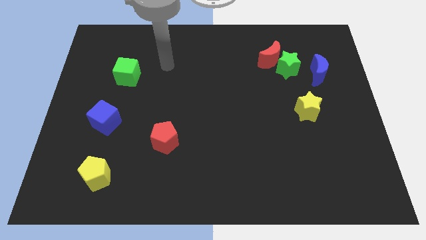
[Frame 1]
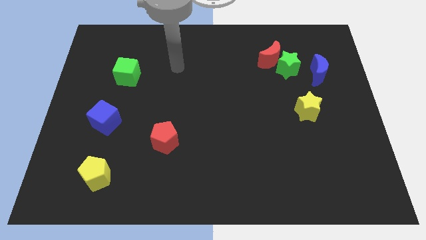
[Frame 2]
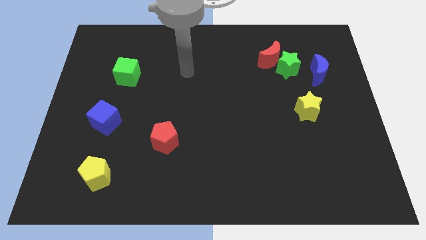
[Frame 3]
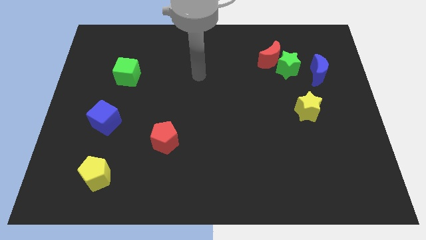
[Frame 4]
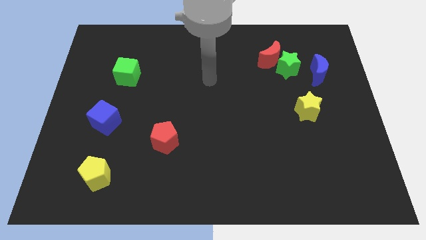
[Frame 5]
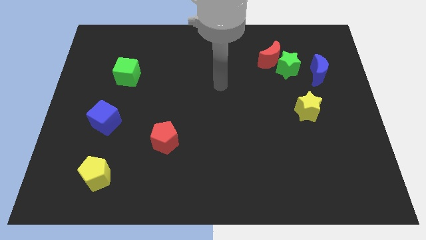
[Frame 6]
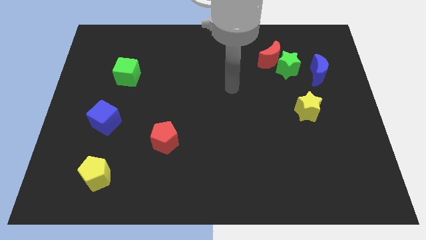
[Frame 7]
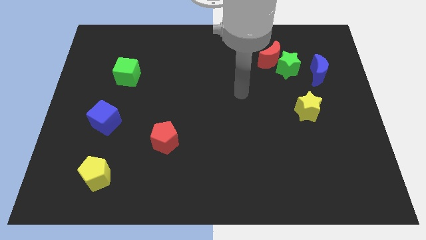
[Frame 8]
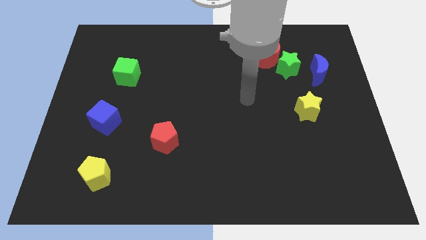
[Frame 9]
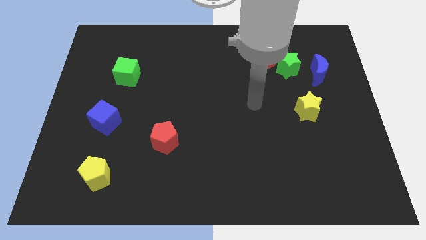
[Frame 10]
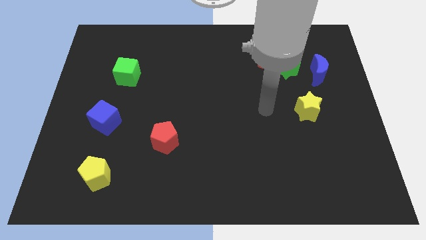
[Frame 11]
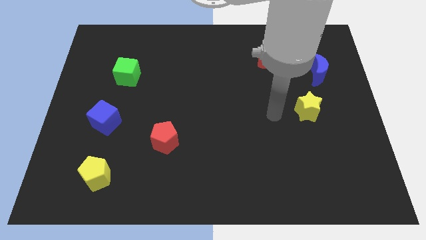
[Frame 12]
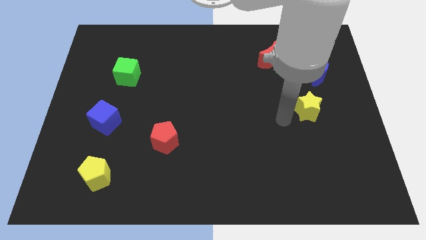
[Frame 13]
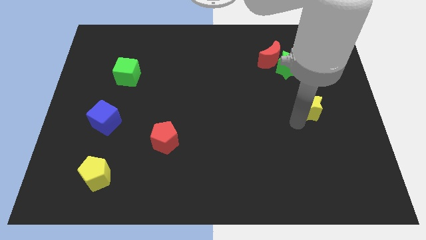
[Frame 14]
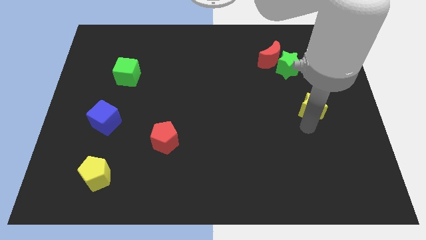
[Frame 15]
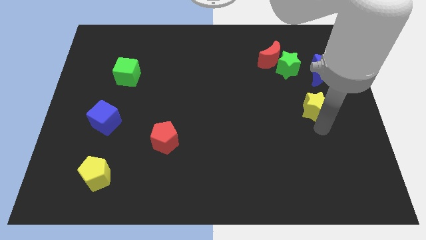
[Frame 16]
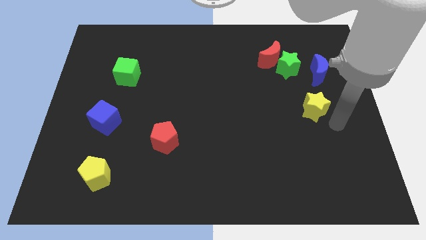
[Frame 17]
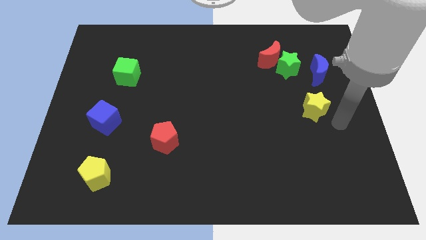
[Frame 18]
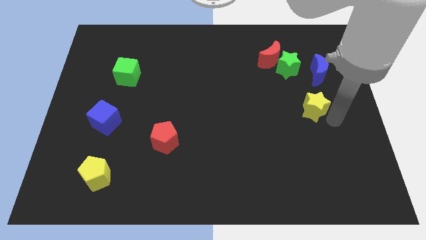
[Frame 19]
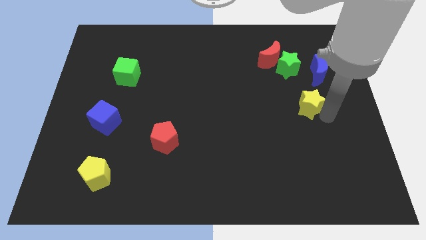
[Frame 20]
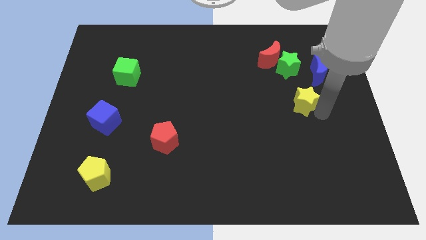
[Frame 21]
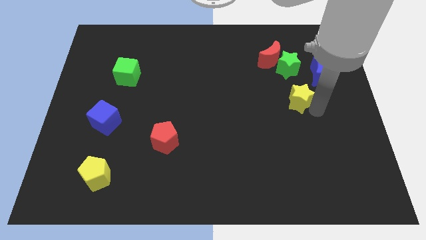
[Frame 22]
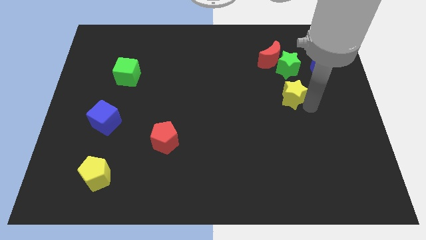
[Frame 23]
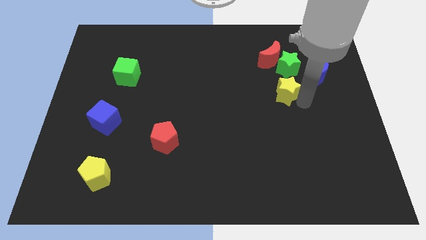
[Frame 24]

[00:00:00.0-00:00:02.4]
push the yellow star slightly diagonally up and to the left

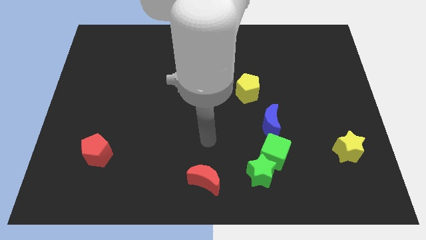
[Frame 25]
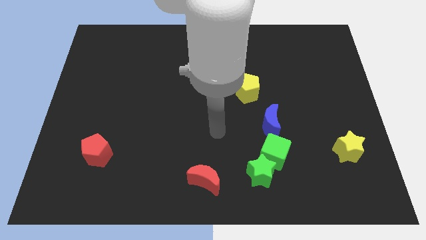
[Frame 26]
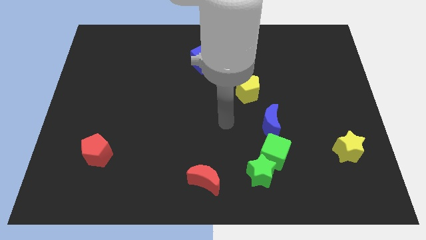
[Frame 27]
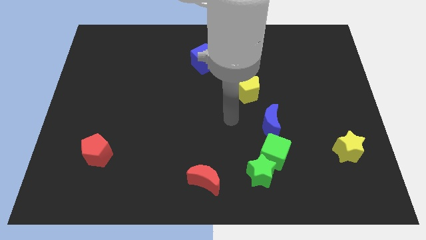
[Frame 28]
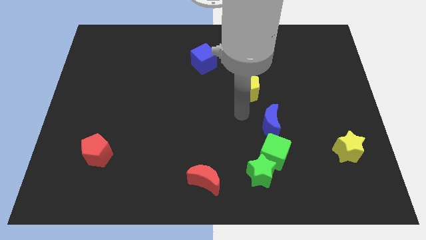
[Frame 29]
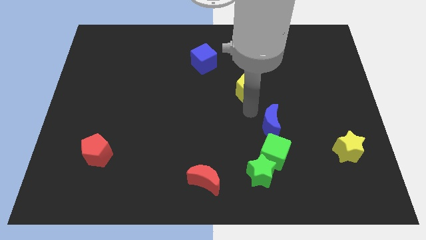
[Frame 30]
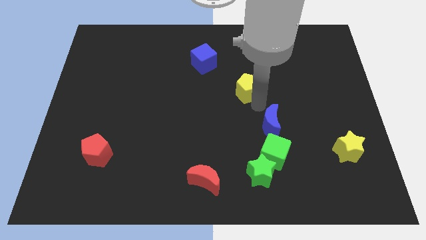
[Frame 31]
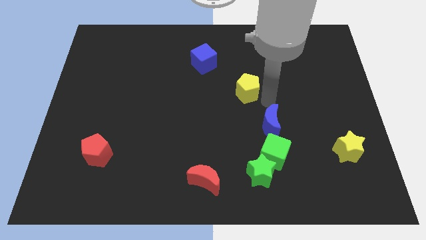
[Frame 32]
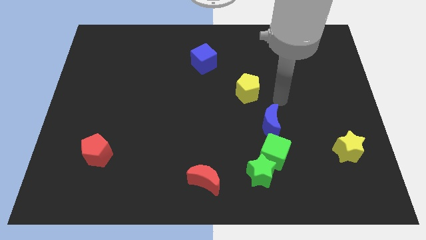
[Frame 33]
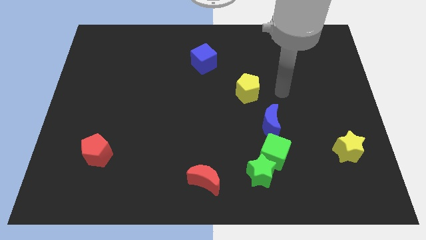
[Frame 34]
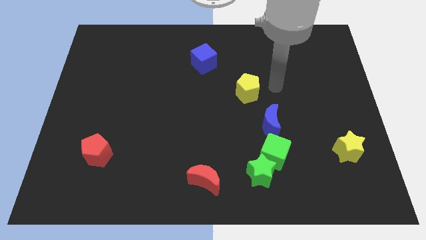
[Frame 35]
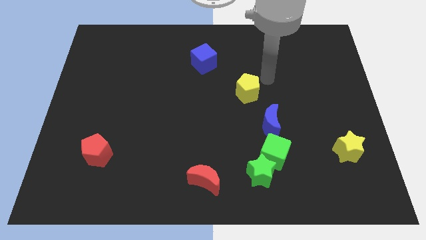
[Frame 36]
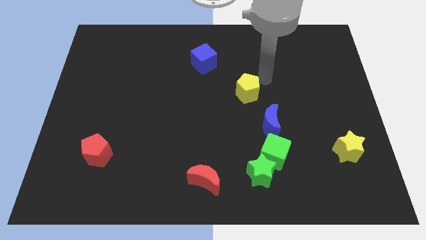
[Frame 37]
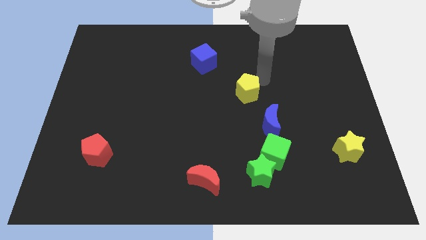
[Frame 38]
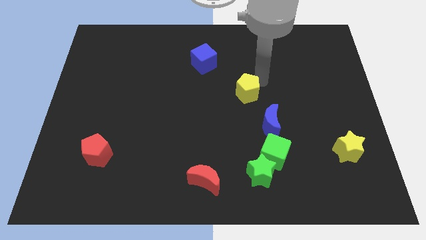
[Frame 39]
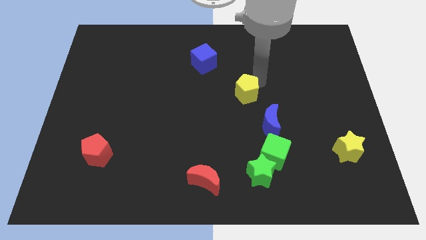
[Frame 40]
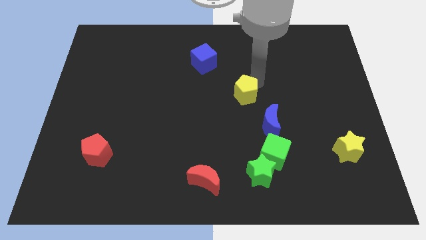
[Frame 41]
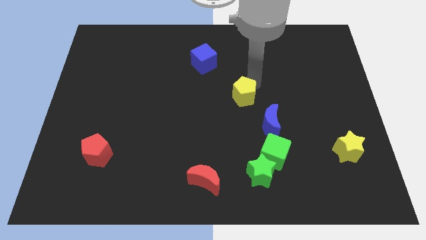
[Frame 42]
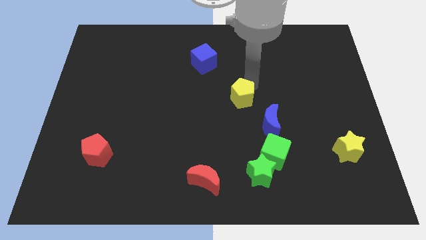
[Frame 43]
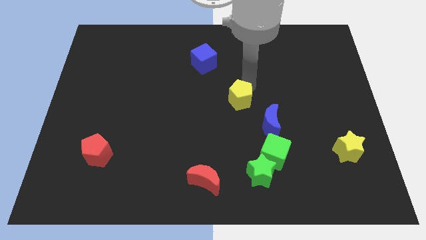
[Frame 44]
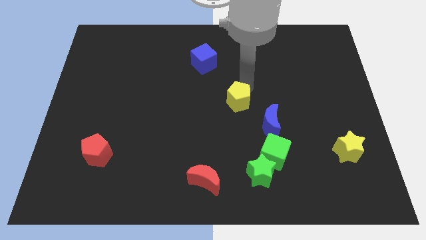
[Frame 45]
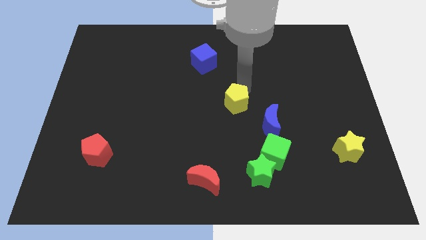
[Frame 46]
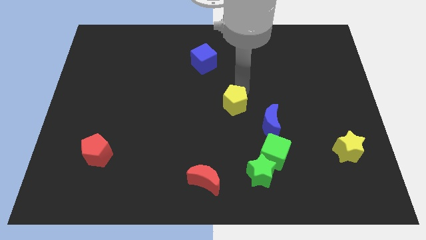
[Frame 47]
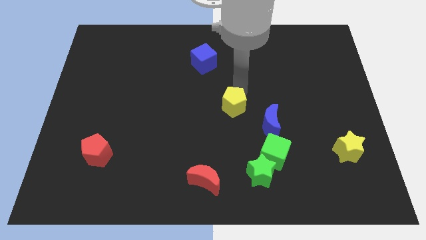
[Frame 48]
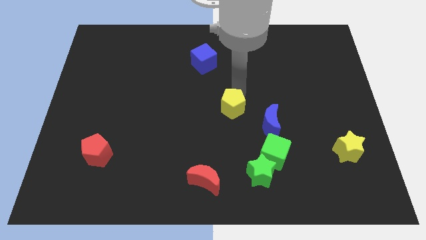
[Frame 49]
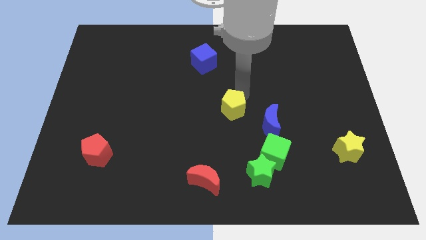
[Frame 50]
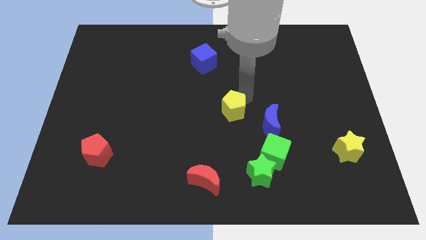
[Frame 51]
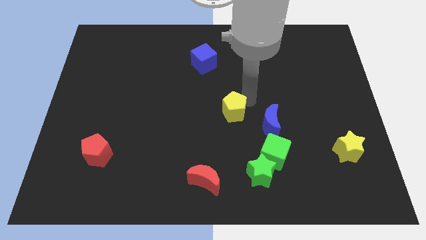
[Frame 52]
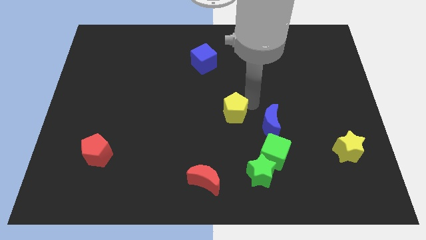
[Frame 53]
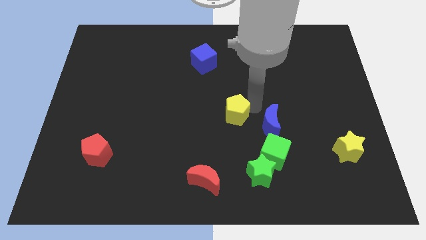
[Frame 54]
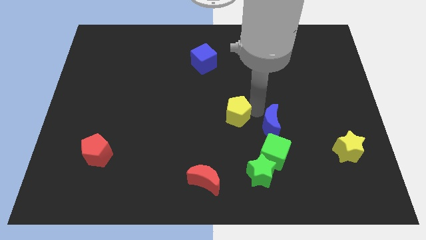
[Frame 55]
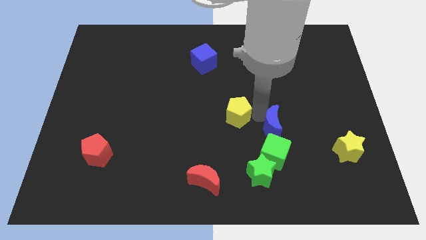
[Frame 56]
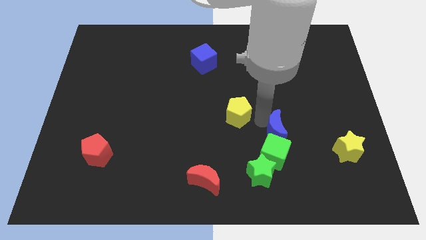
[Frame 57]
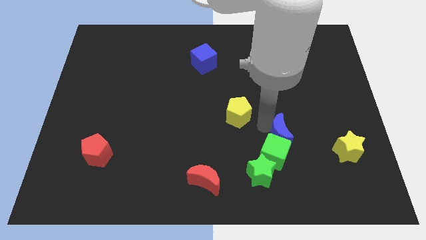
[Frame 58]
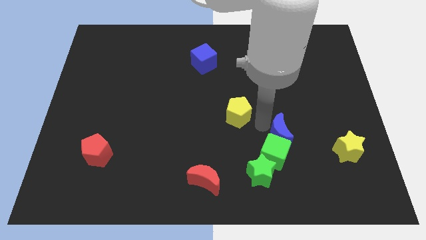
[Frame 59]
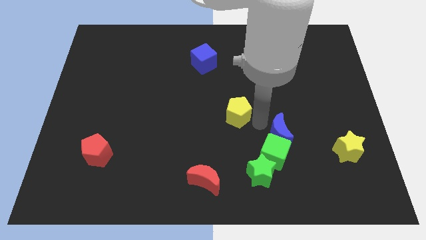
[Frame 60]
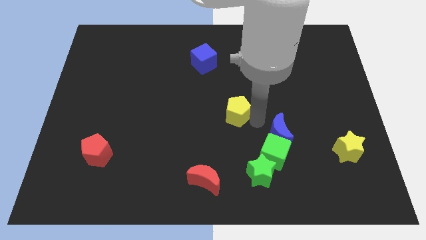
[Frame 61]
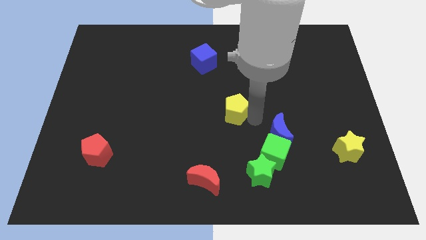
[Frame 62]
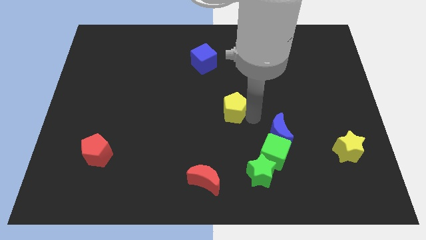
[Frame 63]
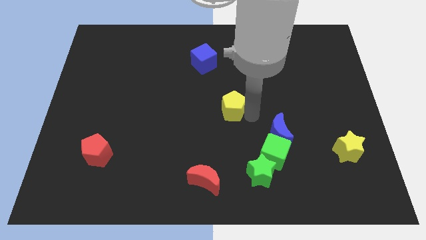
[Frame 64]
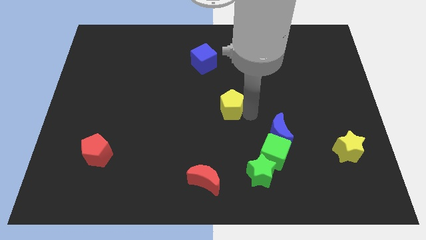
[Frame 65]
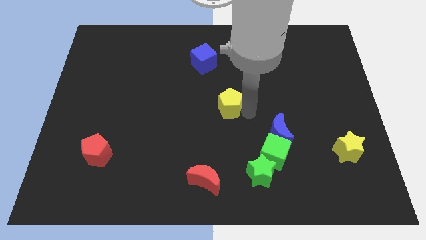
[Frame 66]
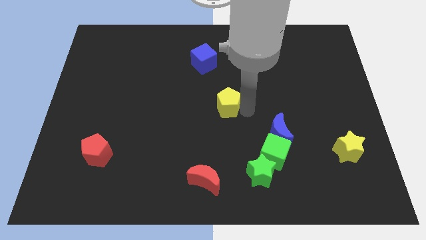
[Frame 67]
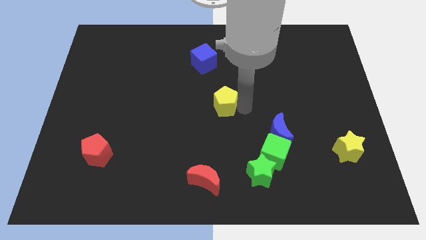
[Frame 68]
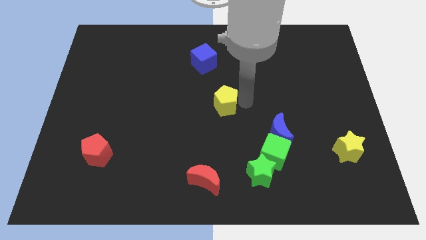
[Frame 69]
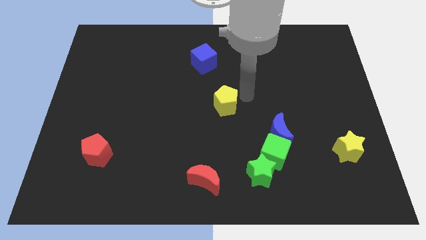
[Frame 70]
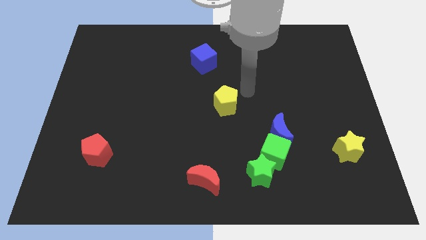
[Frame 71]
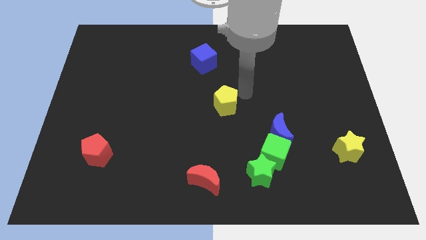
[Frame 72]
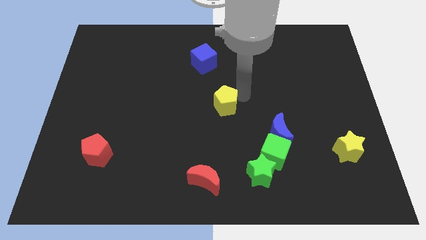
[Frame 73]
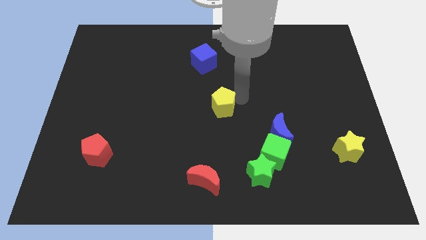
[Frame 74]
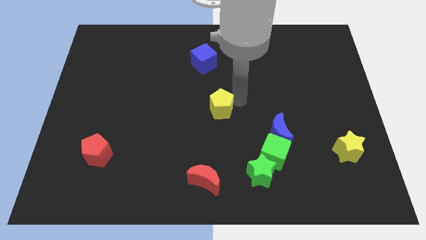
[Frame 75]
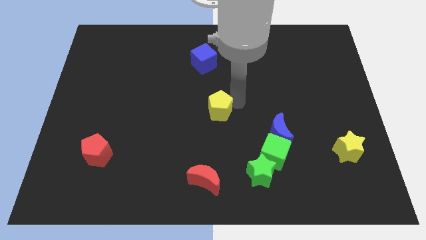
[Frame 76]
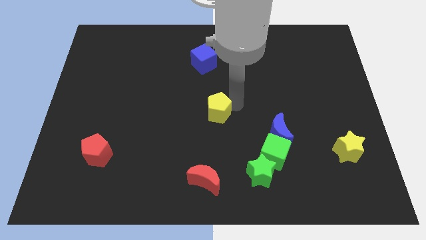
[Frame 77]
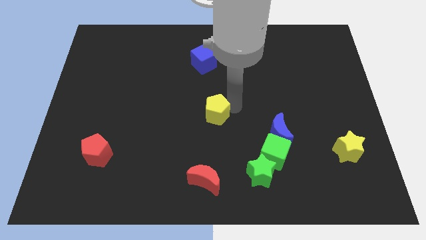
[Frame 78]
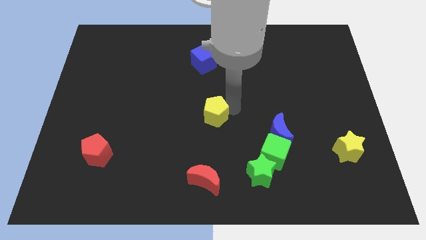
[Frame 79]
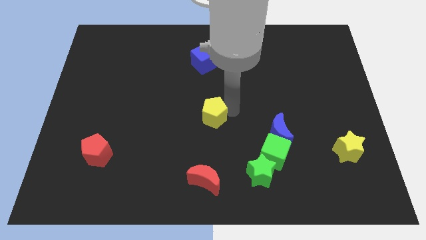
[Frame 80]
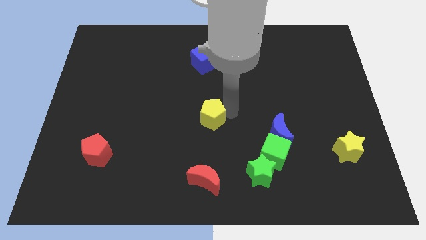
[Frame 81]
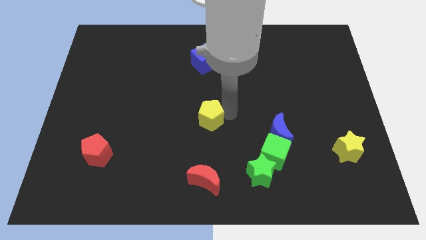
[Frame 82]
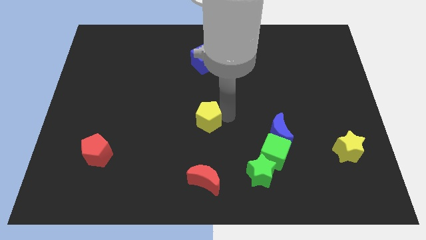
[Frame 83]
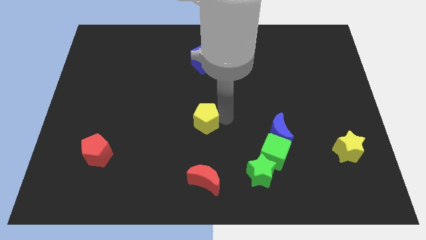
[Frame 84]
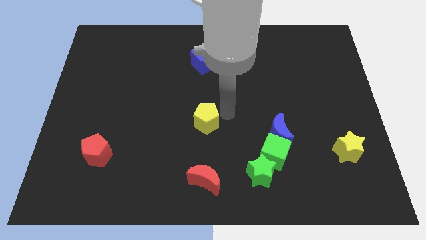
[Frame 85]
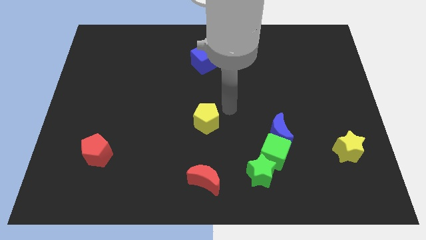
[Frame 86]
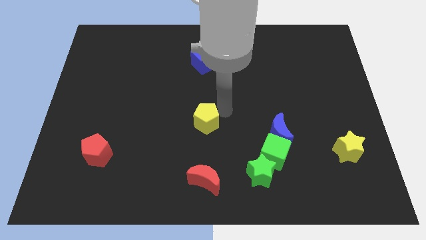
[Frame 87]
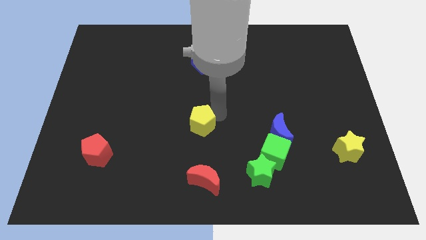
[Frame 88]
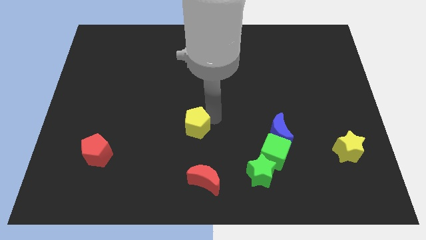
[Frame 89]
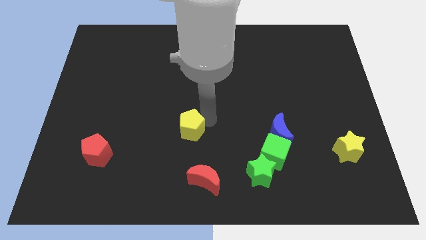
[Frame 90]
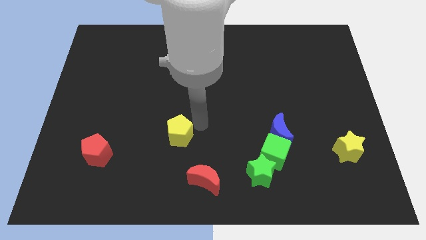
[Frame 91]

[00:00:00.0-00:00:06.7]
move the yellow pentagon downwards and then to the left
